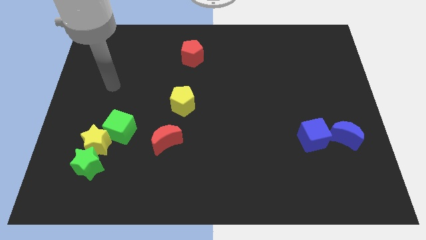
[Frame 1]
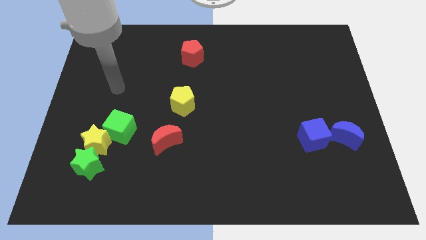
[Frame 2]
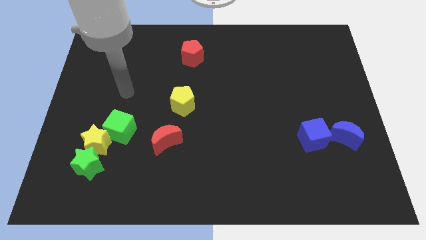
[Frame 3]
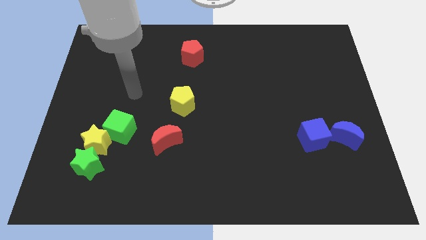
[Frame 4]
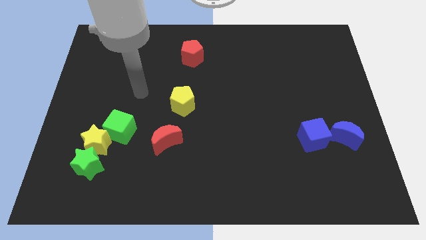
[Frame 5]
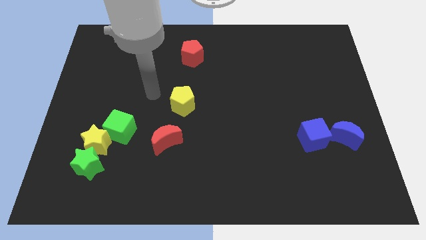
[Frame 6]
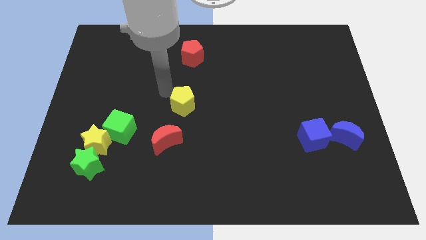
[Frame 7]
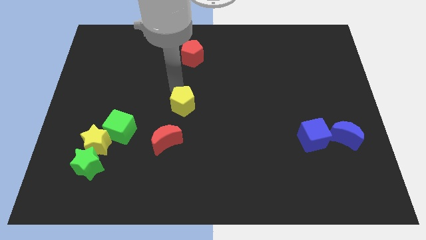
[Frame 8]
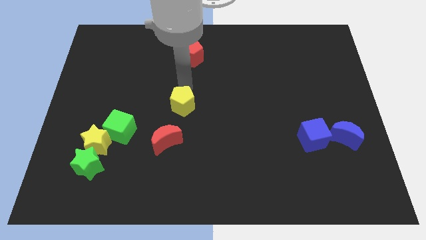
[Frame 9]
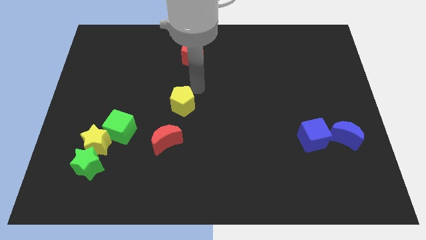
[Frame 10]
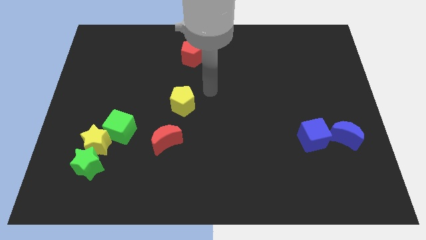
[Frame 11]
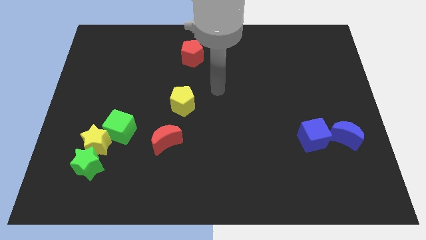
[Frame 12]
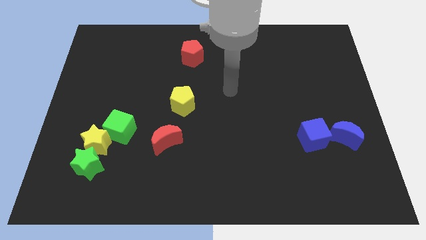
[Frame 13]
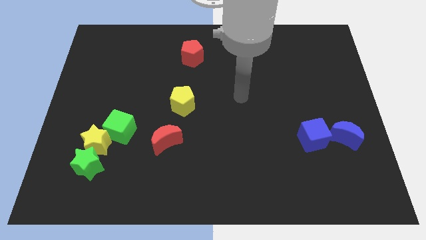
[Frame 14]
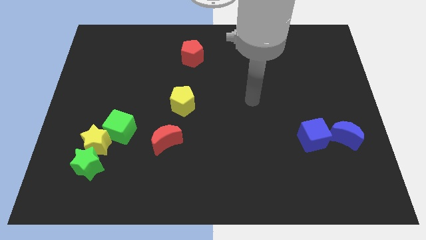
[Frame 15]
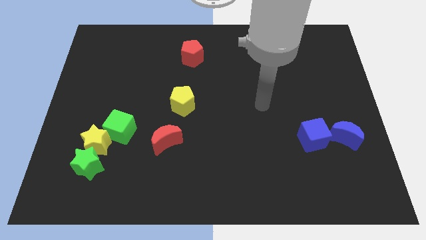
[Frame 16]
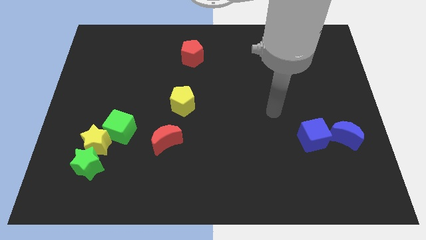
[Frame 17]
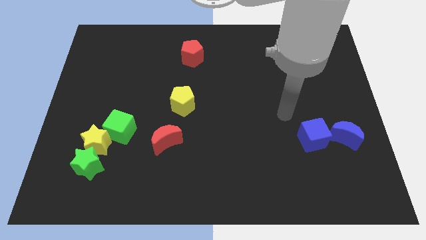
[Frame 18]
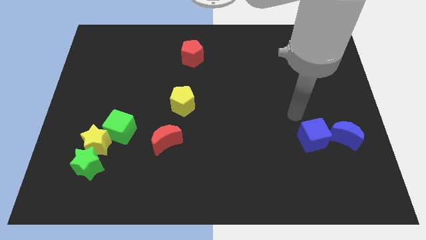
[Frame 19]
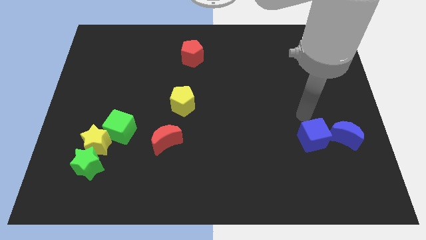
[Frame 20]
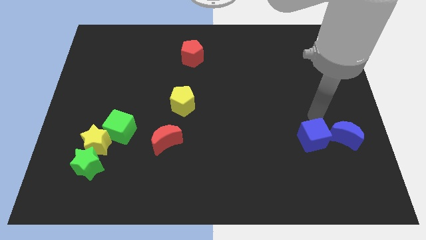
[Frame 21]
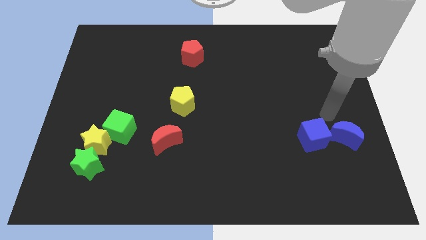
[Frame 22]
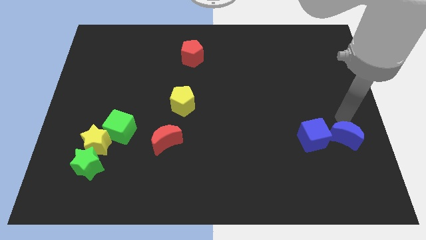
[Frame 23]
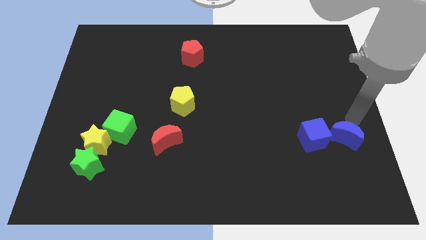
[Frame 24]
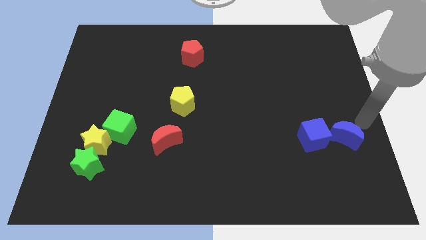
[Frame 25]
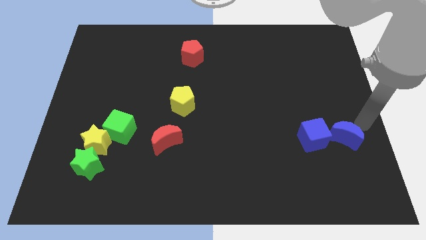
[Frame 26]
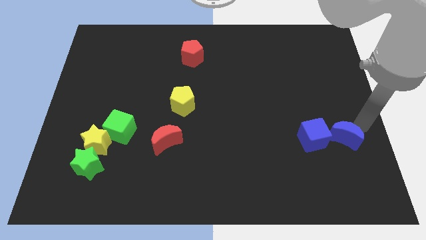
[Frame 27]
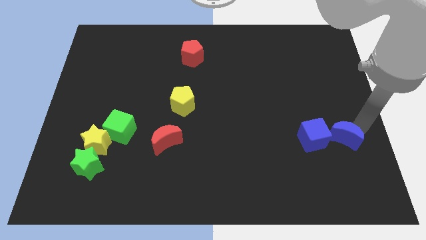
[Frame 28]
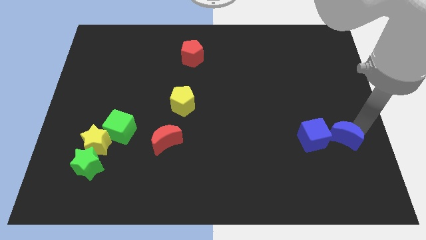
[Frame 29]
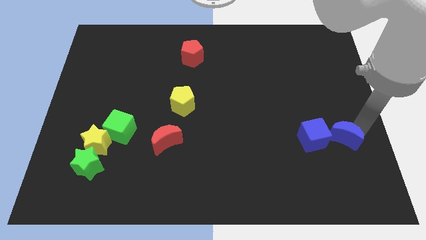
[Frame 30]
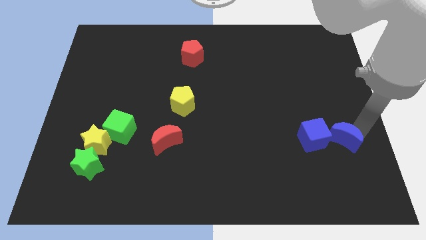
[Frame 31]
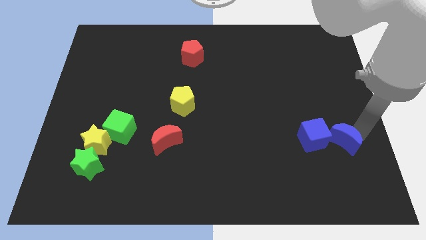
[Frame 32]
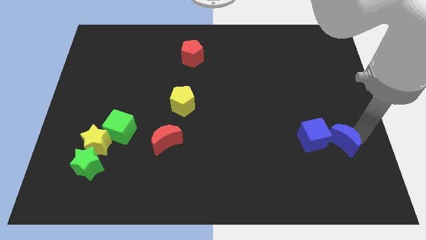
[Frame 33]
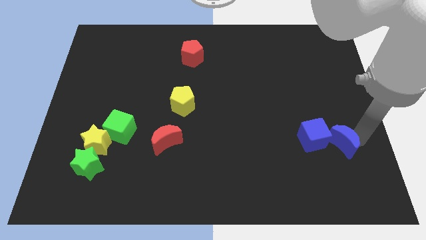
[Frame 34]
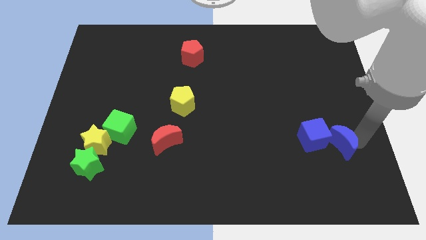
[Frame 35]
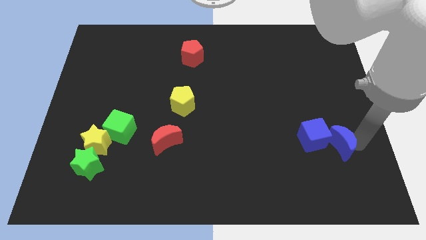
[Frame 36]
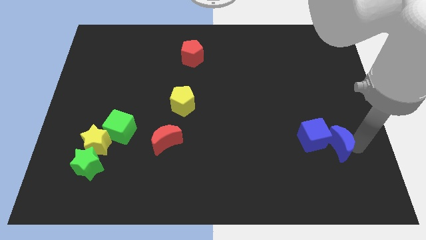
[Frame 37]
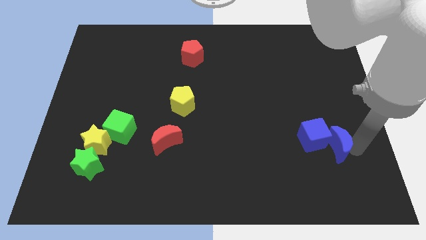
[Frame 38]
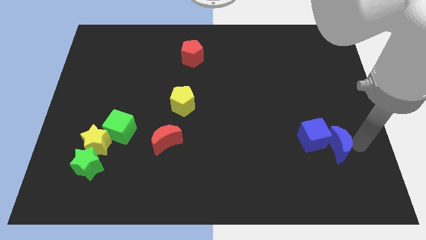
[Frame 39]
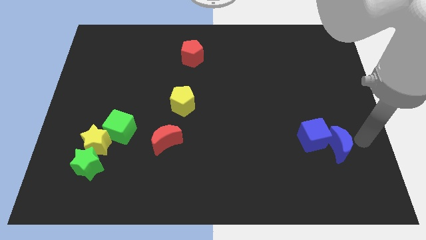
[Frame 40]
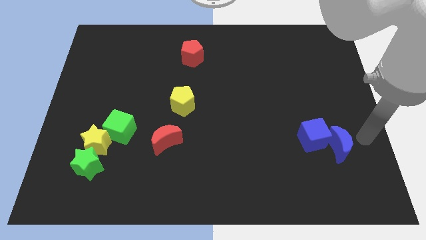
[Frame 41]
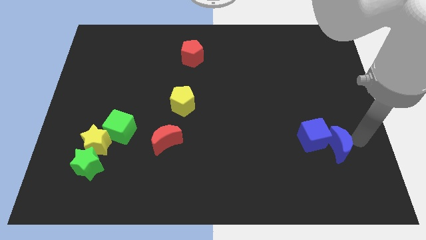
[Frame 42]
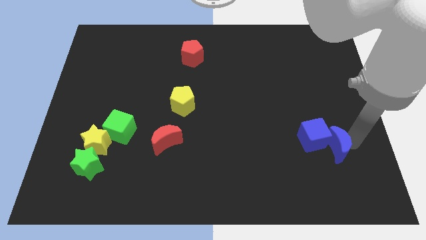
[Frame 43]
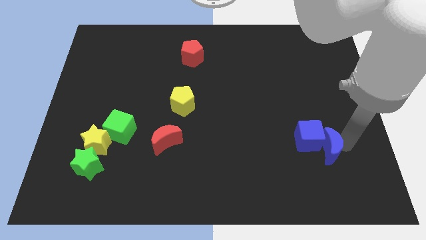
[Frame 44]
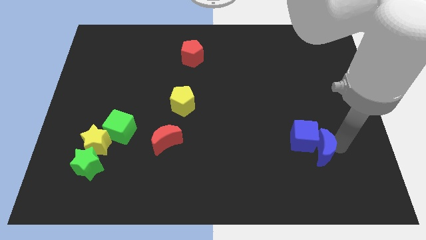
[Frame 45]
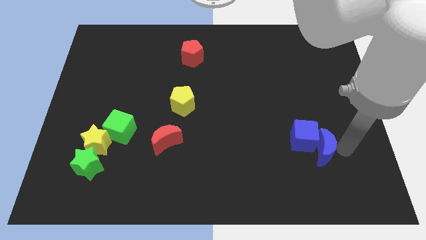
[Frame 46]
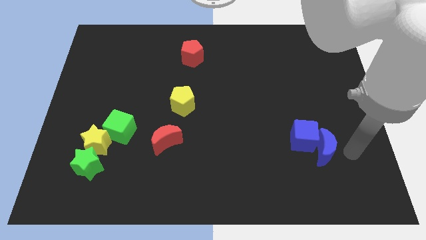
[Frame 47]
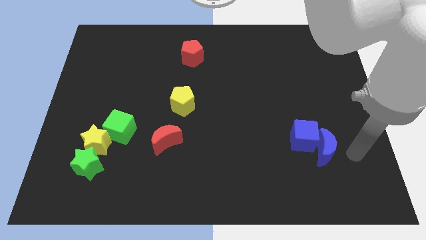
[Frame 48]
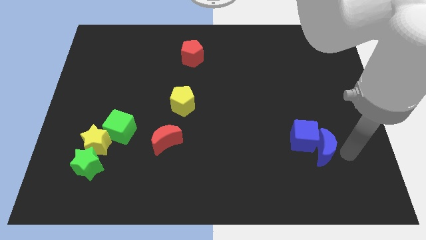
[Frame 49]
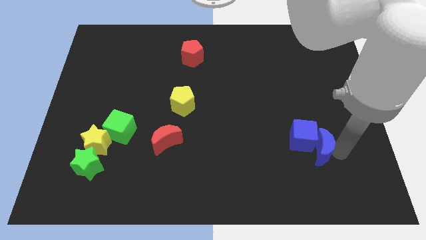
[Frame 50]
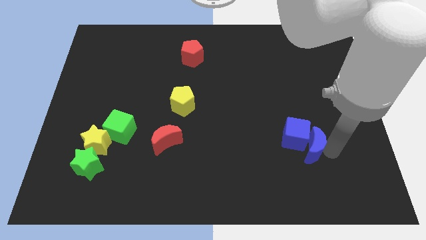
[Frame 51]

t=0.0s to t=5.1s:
move the blue moon a bit to the left

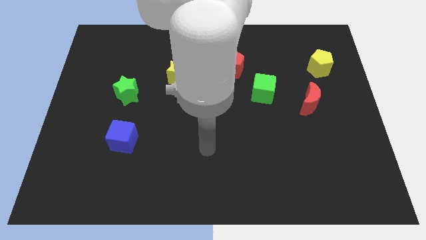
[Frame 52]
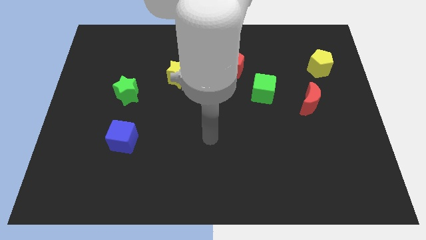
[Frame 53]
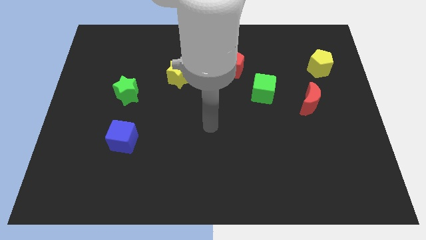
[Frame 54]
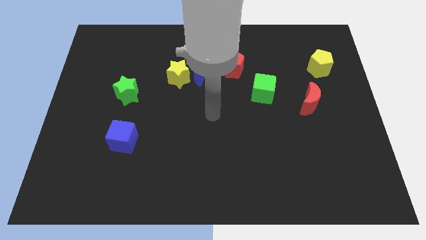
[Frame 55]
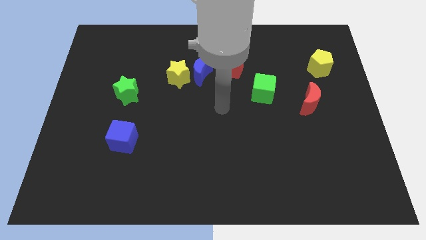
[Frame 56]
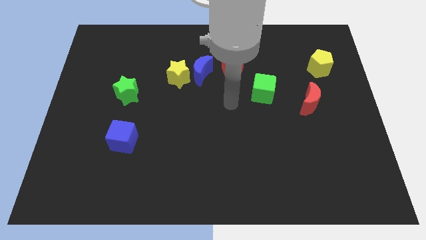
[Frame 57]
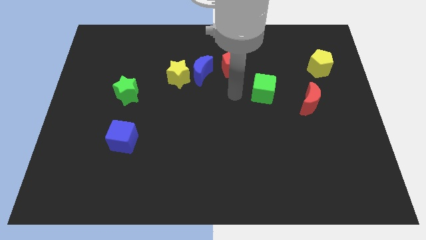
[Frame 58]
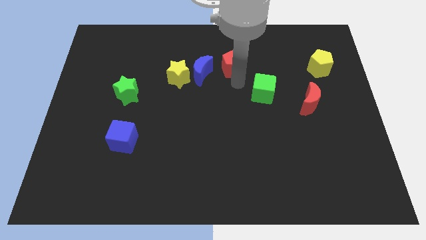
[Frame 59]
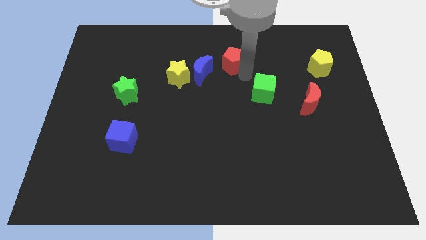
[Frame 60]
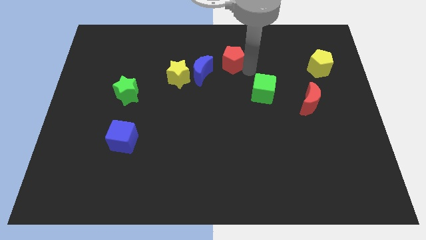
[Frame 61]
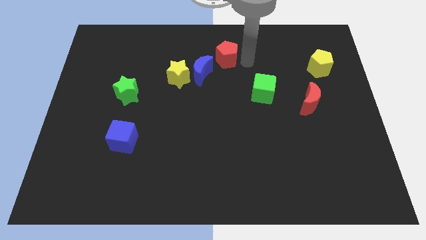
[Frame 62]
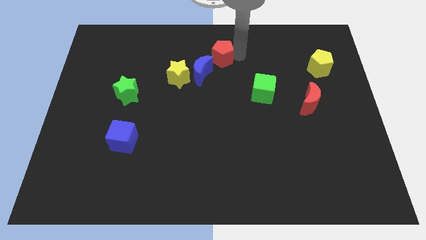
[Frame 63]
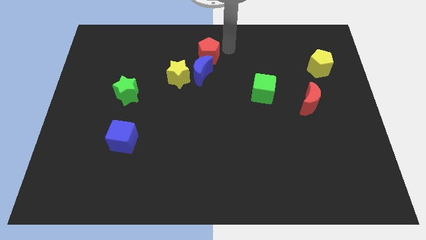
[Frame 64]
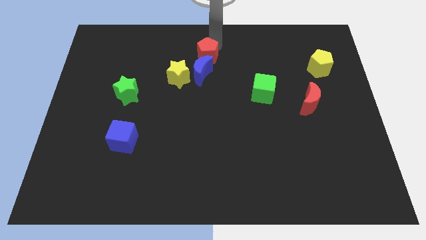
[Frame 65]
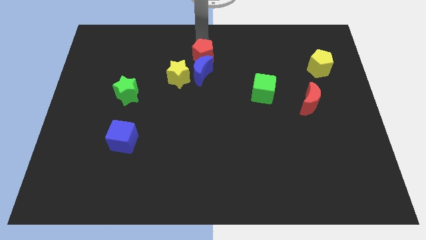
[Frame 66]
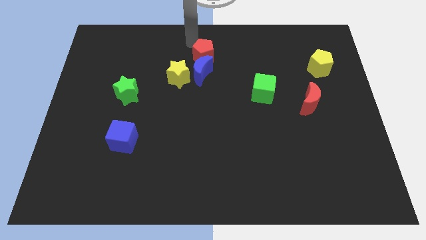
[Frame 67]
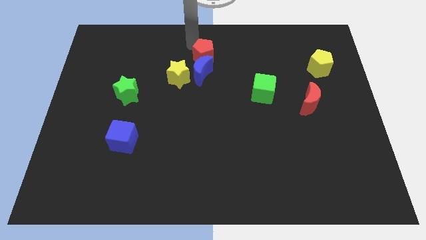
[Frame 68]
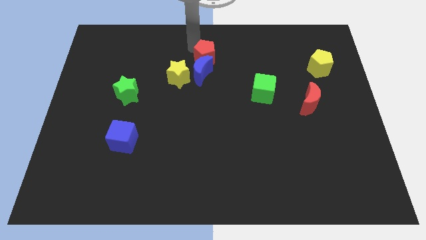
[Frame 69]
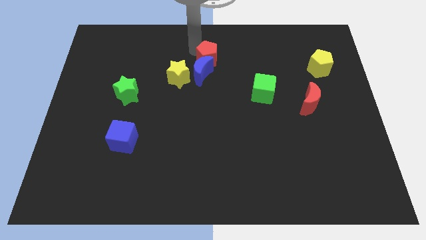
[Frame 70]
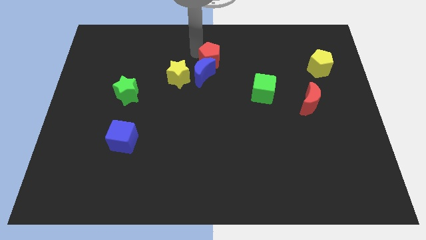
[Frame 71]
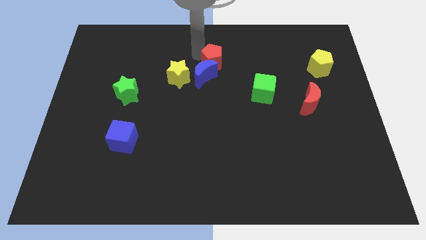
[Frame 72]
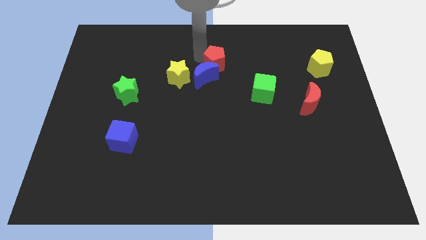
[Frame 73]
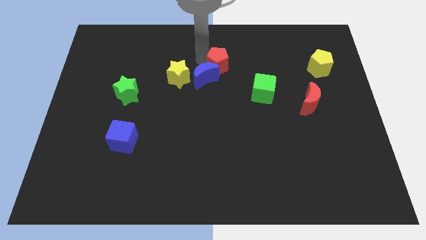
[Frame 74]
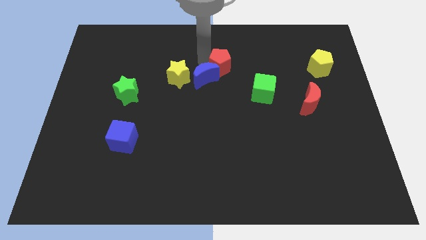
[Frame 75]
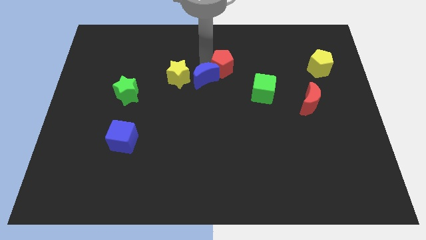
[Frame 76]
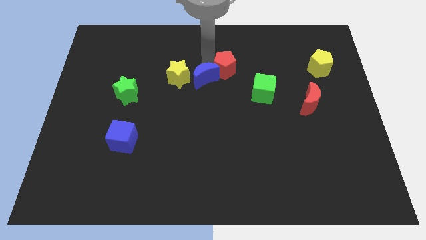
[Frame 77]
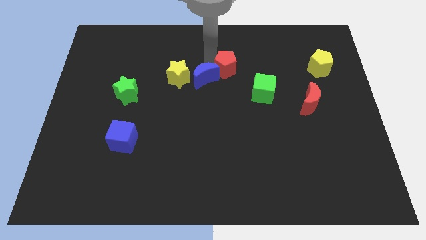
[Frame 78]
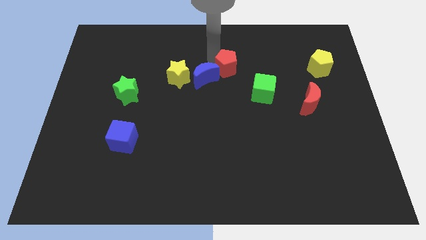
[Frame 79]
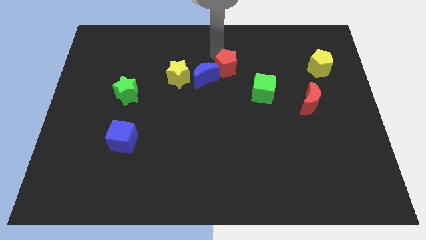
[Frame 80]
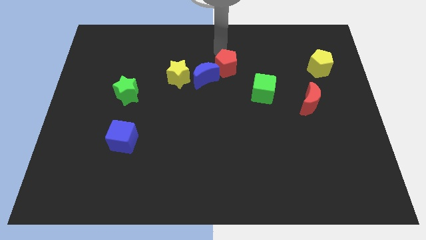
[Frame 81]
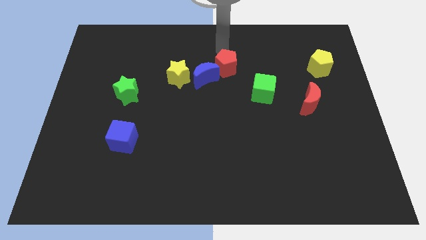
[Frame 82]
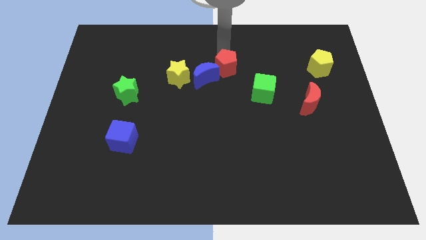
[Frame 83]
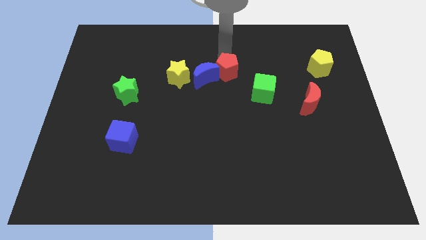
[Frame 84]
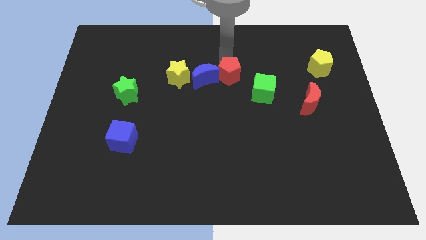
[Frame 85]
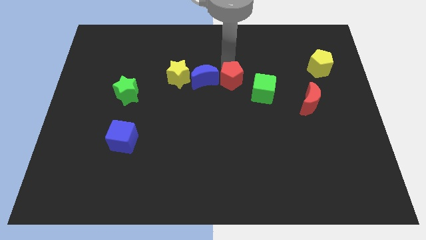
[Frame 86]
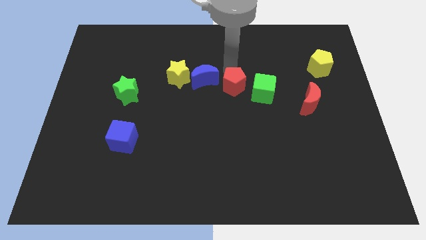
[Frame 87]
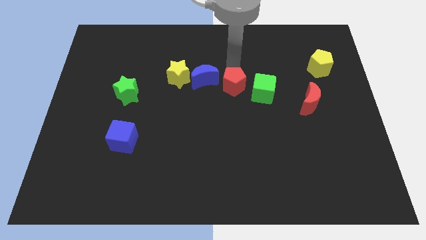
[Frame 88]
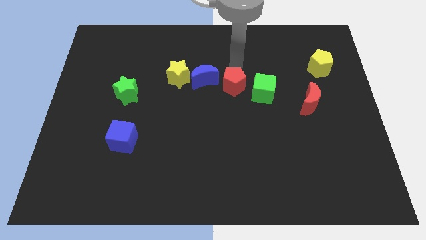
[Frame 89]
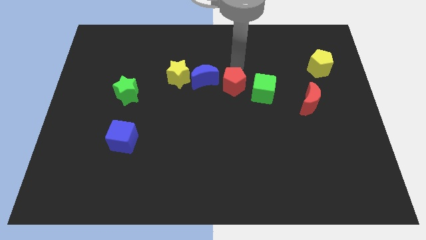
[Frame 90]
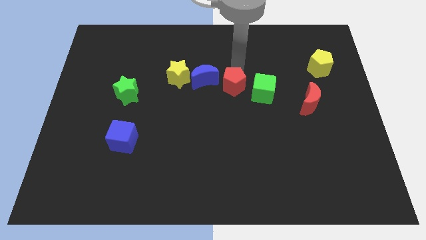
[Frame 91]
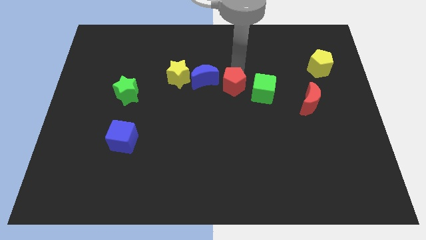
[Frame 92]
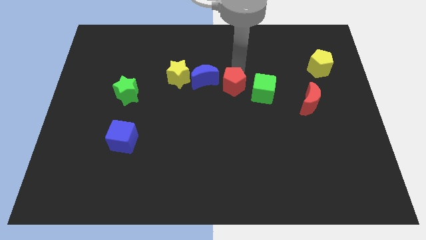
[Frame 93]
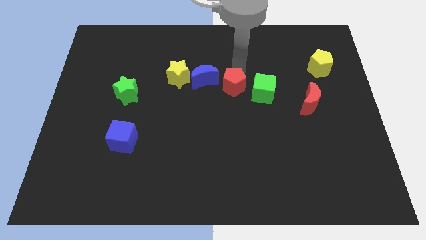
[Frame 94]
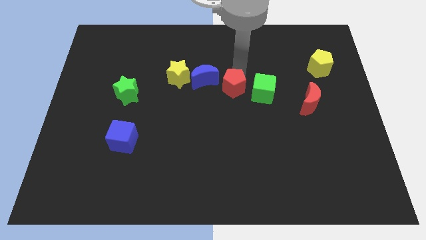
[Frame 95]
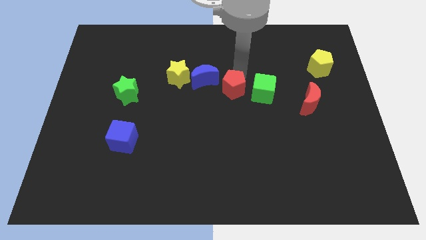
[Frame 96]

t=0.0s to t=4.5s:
slide the red pentagon slightly down
